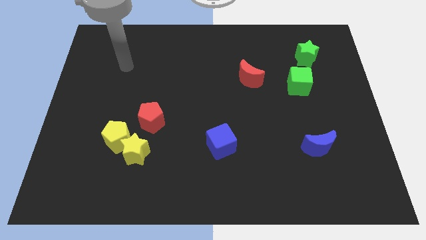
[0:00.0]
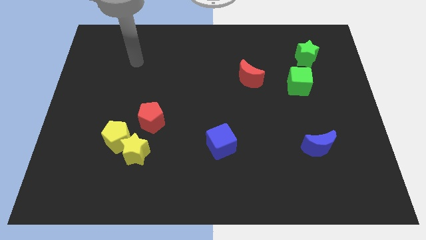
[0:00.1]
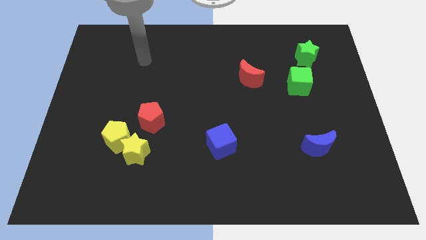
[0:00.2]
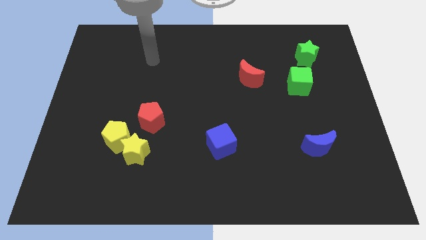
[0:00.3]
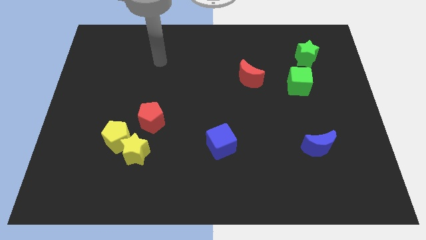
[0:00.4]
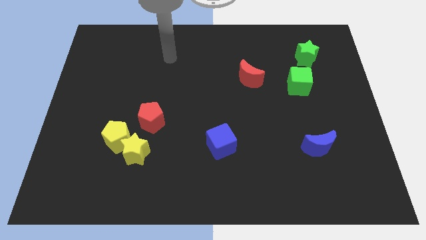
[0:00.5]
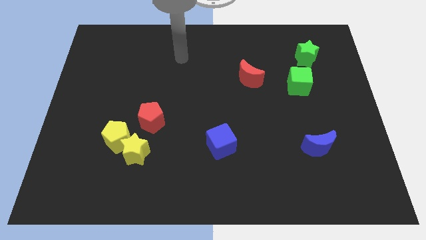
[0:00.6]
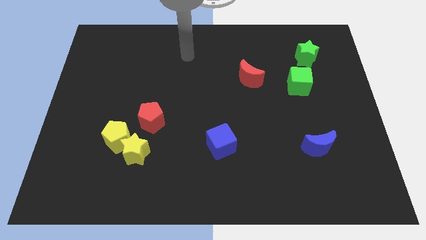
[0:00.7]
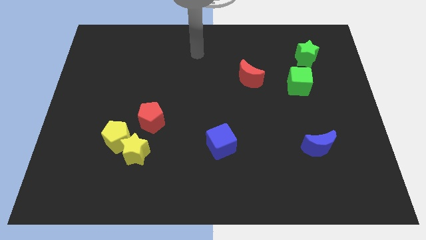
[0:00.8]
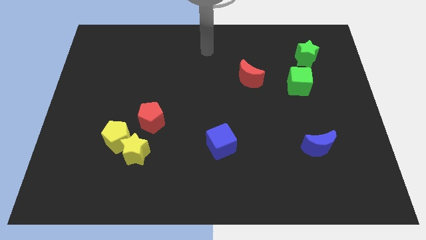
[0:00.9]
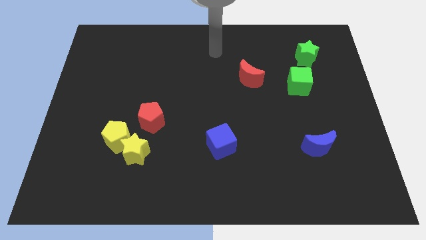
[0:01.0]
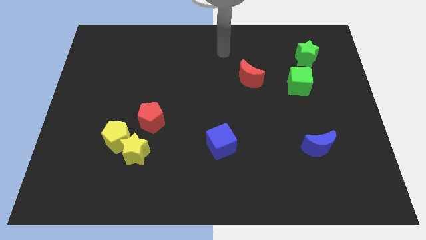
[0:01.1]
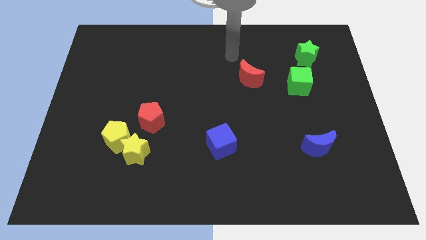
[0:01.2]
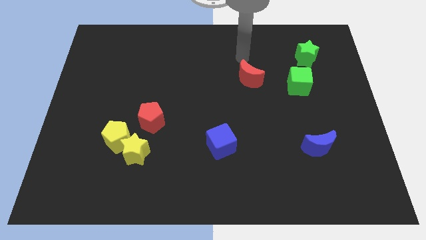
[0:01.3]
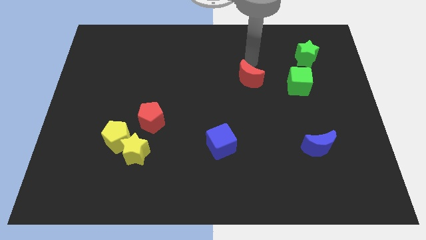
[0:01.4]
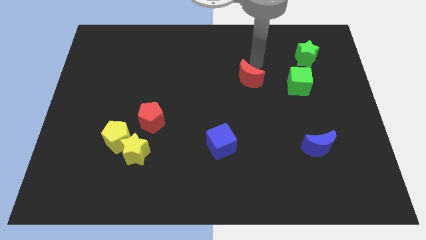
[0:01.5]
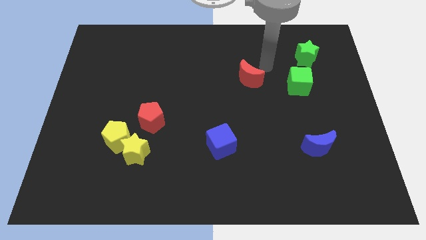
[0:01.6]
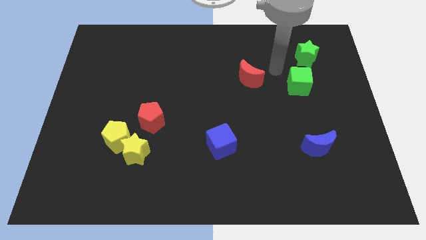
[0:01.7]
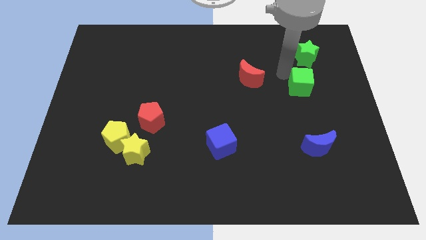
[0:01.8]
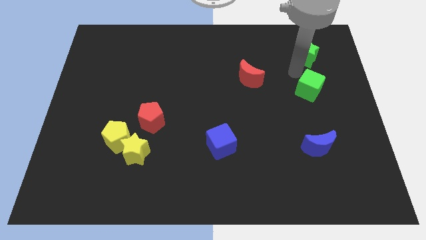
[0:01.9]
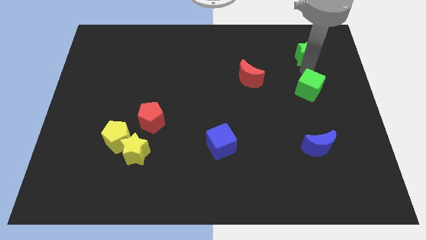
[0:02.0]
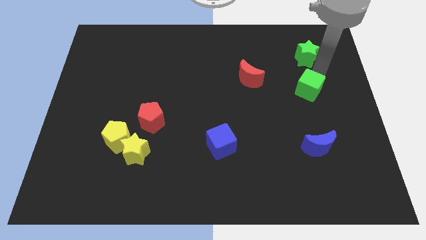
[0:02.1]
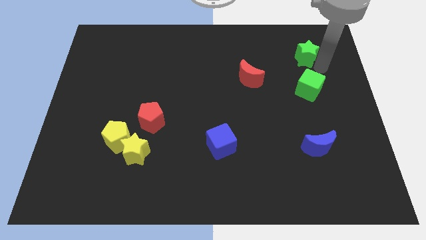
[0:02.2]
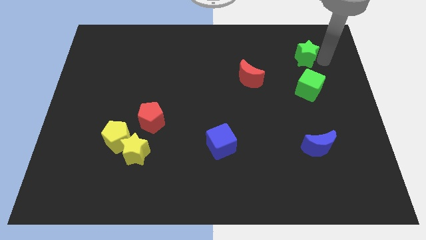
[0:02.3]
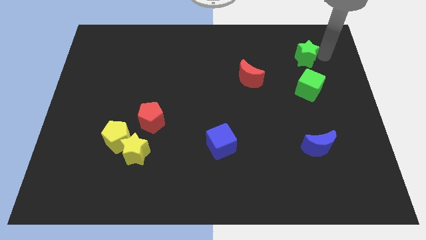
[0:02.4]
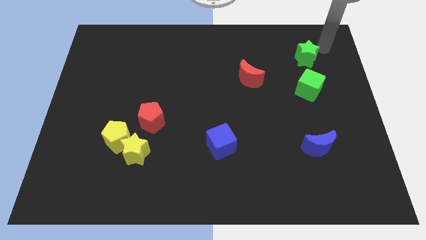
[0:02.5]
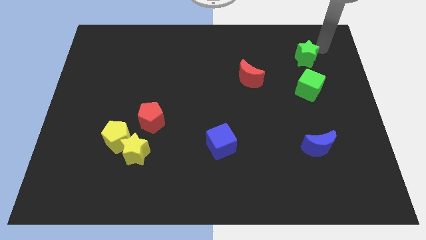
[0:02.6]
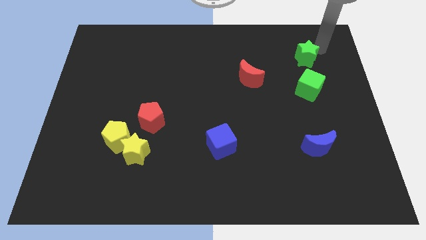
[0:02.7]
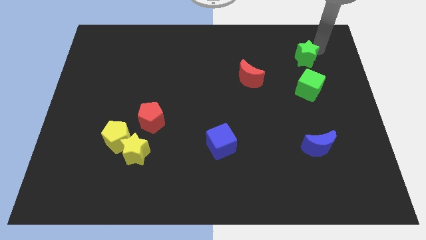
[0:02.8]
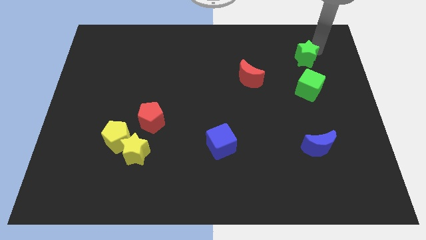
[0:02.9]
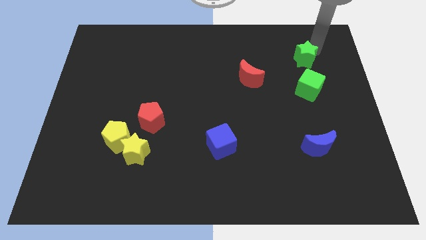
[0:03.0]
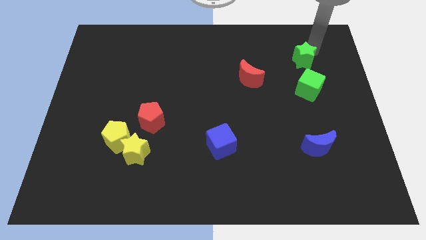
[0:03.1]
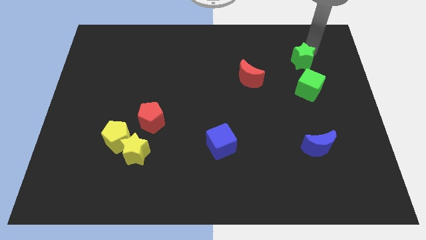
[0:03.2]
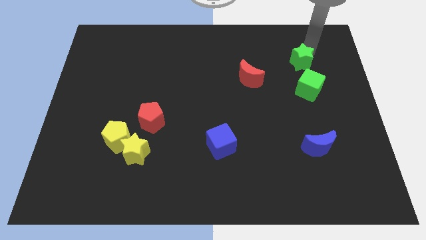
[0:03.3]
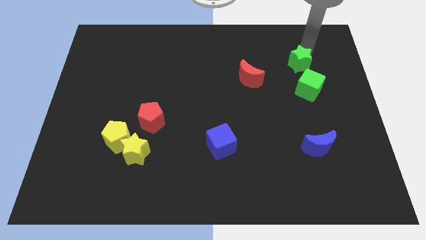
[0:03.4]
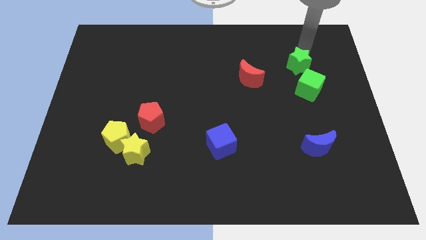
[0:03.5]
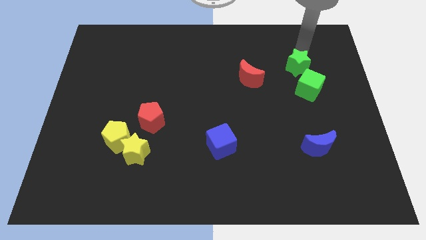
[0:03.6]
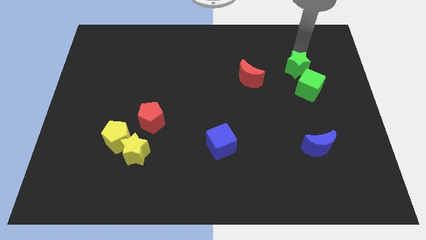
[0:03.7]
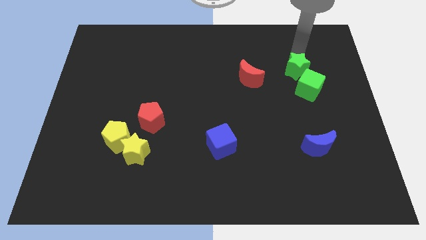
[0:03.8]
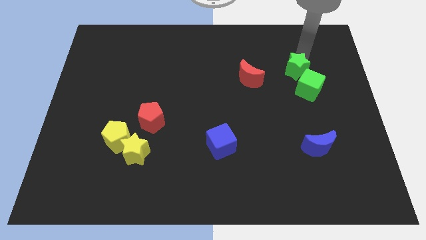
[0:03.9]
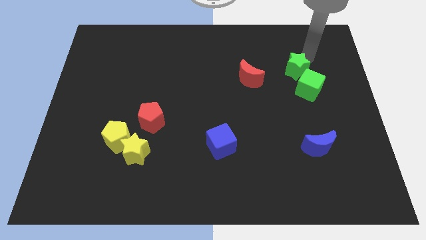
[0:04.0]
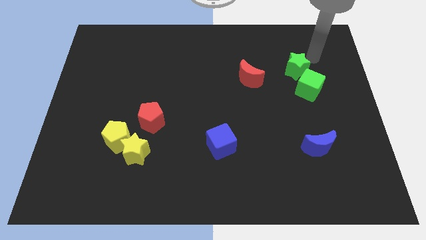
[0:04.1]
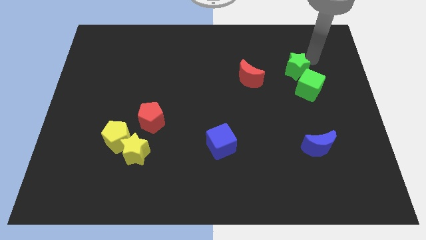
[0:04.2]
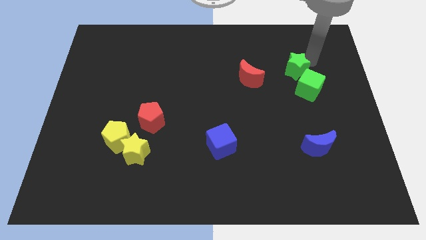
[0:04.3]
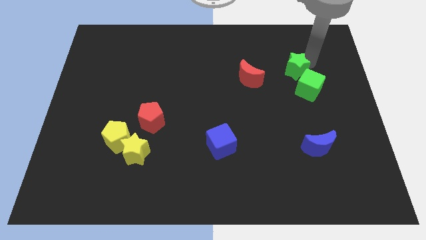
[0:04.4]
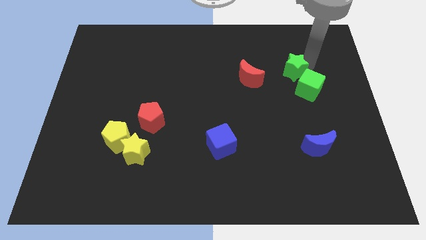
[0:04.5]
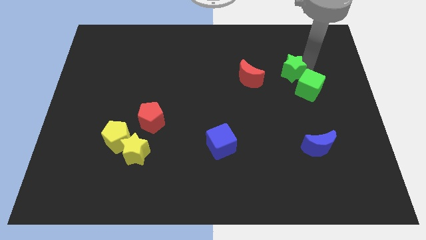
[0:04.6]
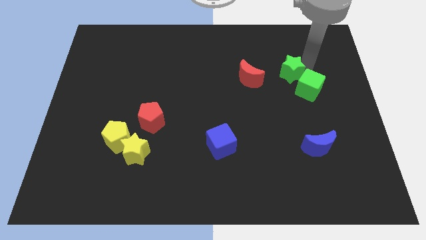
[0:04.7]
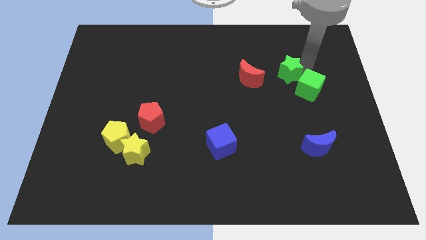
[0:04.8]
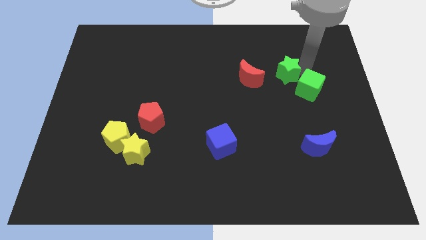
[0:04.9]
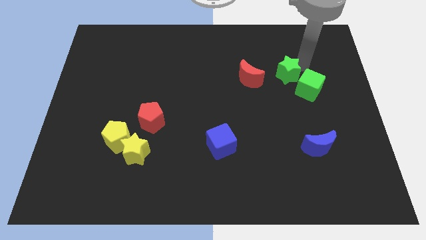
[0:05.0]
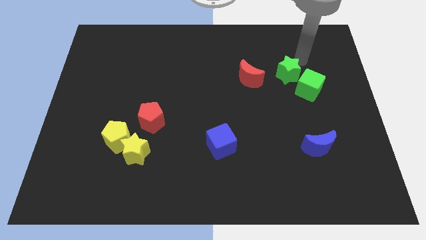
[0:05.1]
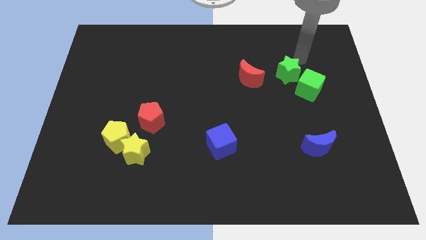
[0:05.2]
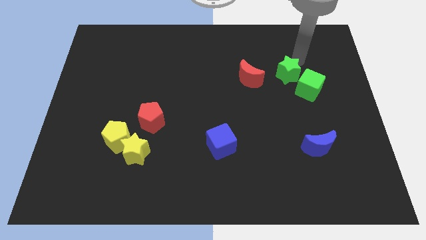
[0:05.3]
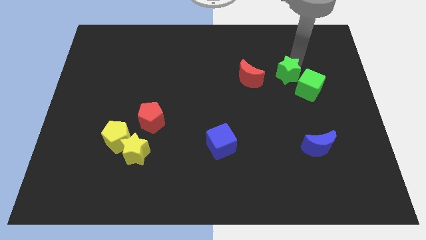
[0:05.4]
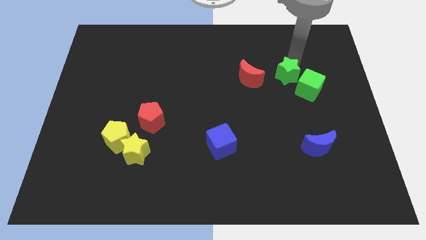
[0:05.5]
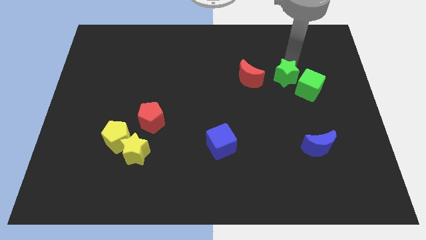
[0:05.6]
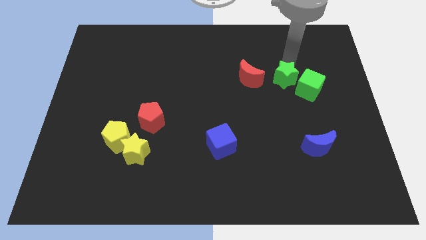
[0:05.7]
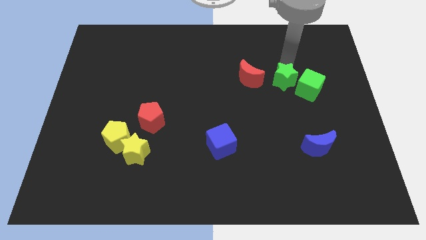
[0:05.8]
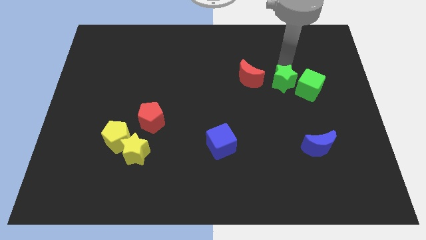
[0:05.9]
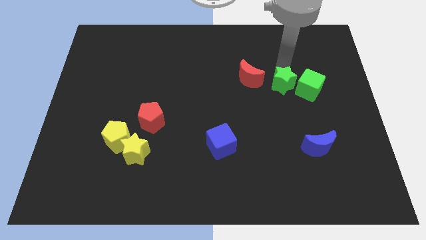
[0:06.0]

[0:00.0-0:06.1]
move the green star to the bottom right of the red moon

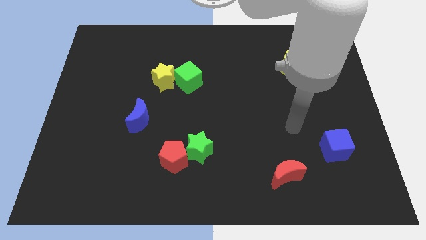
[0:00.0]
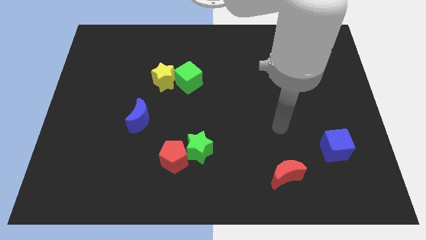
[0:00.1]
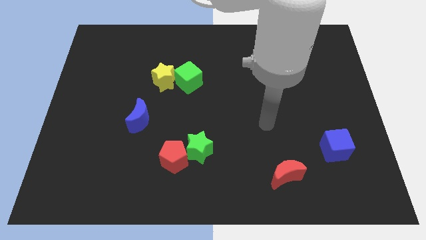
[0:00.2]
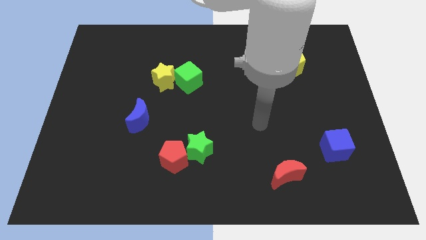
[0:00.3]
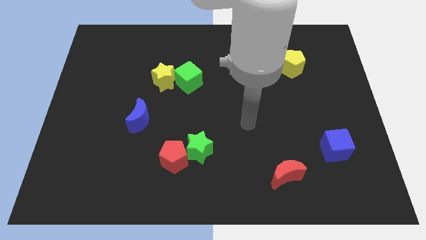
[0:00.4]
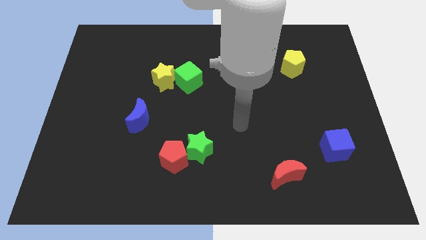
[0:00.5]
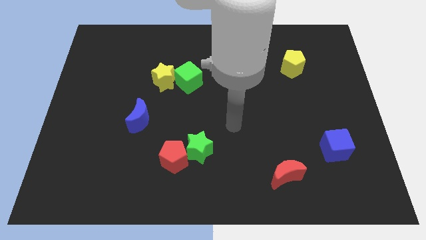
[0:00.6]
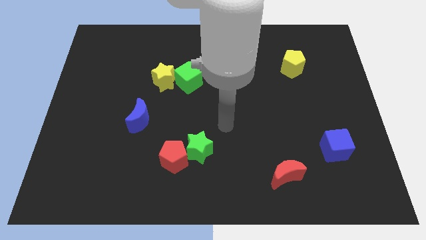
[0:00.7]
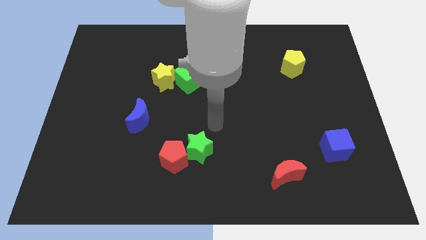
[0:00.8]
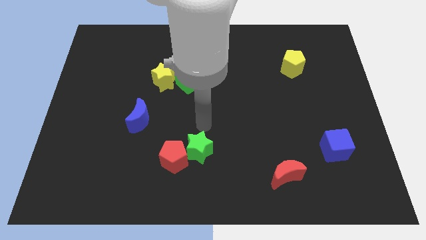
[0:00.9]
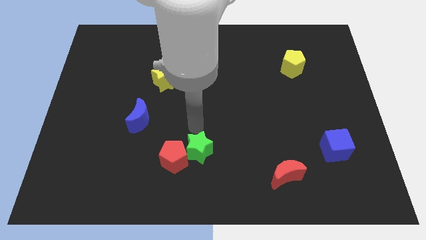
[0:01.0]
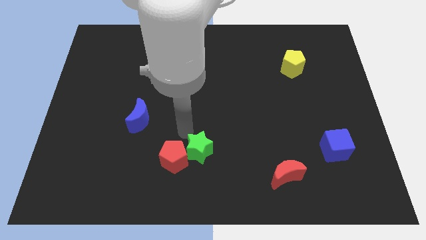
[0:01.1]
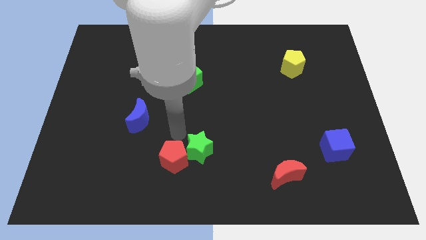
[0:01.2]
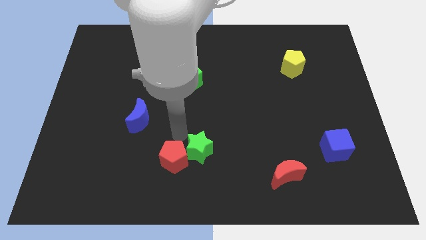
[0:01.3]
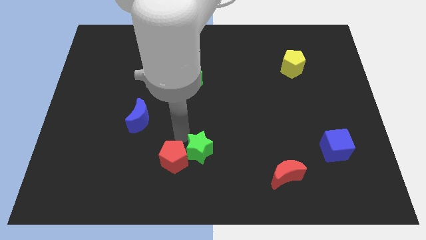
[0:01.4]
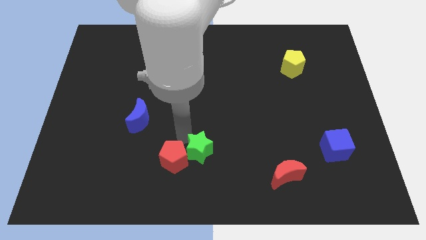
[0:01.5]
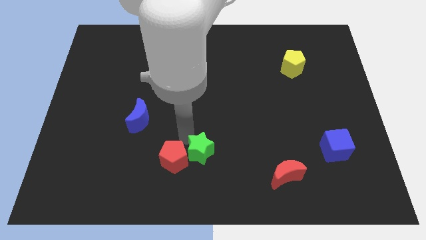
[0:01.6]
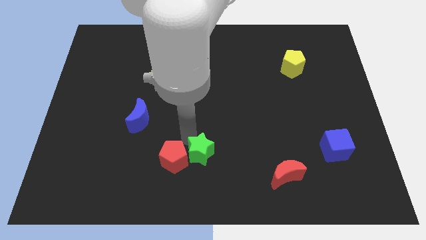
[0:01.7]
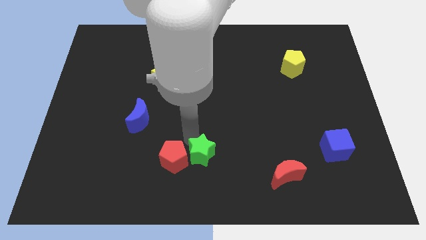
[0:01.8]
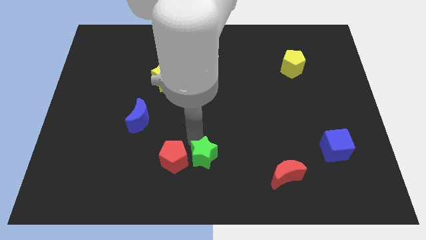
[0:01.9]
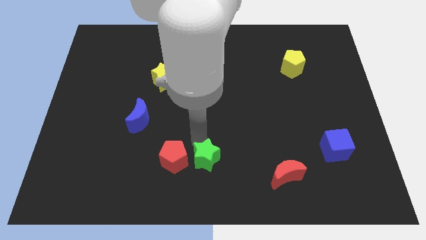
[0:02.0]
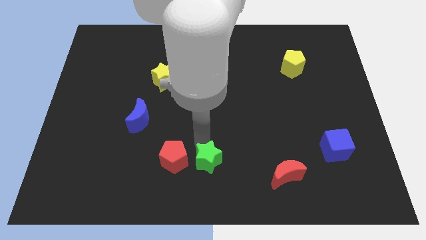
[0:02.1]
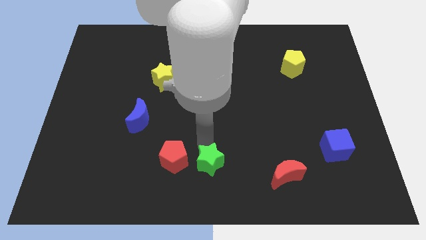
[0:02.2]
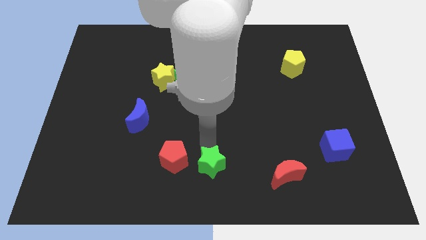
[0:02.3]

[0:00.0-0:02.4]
push the green star left of the red moon
